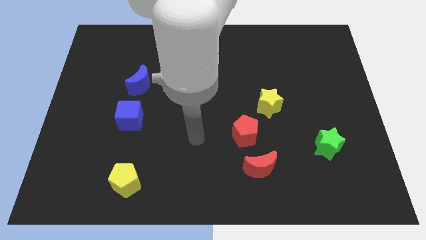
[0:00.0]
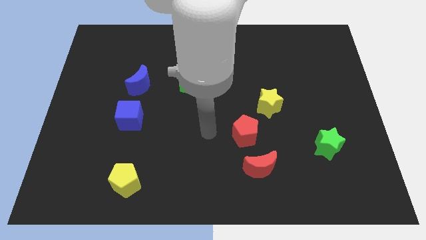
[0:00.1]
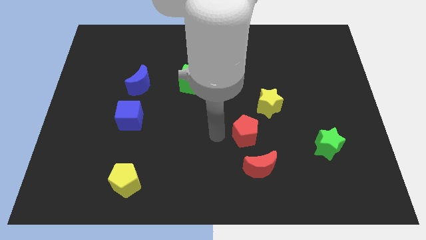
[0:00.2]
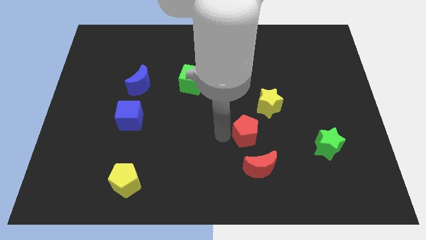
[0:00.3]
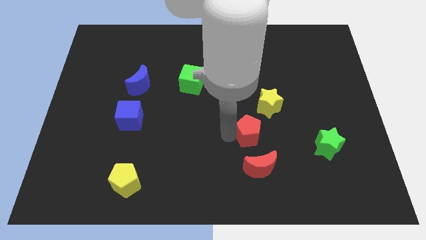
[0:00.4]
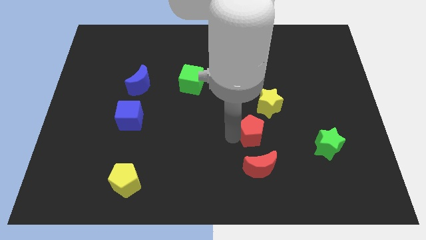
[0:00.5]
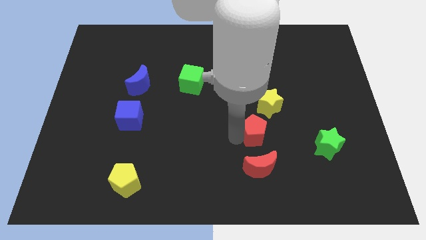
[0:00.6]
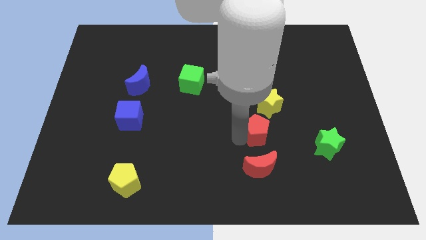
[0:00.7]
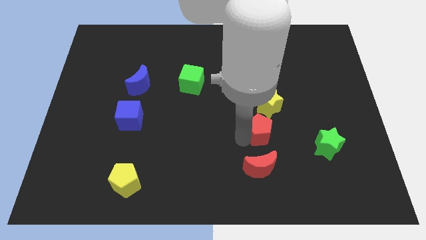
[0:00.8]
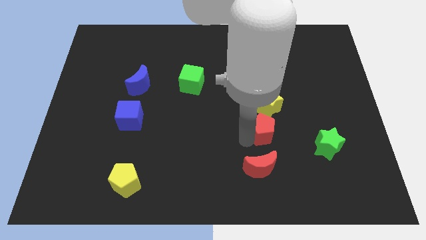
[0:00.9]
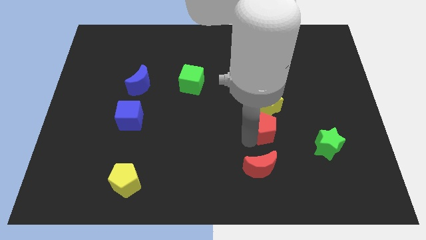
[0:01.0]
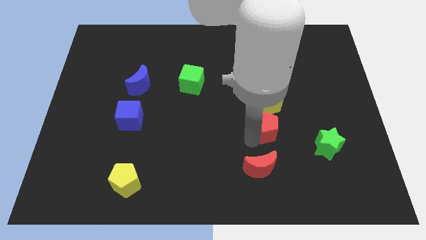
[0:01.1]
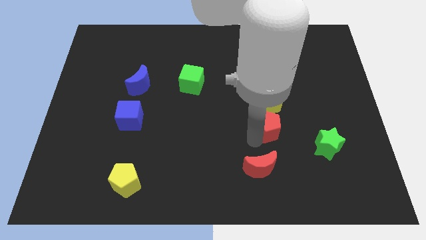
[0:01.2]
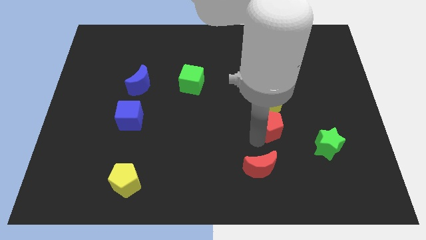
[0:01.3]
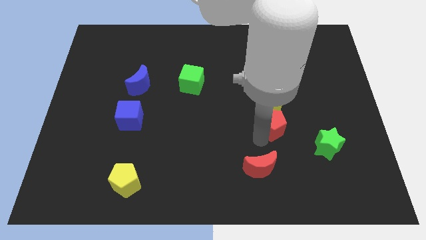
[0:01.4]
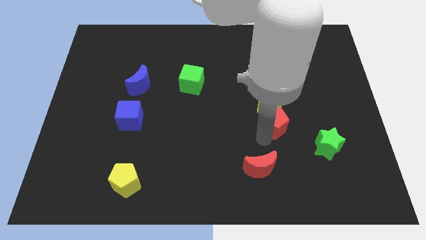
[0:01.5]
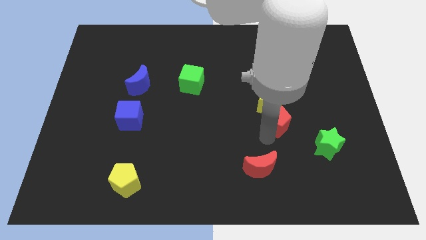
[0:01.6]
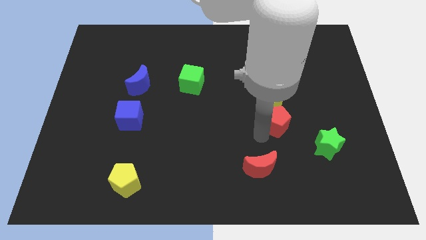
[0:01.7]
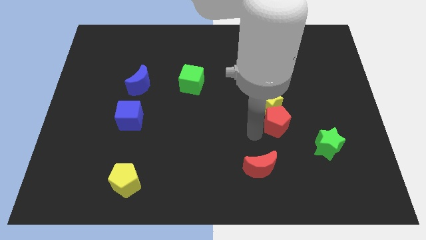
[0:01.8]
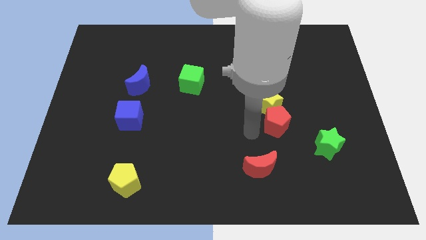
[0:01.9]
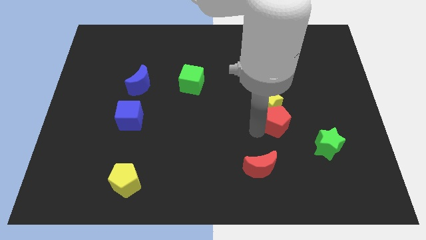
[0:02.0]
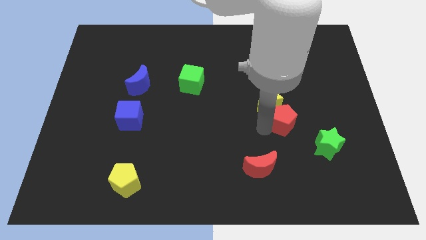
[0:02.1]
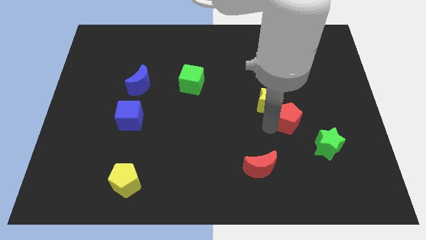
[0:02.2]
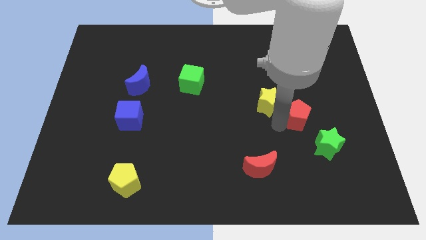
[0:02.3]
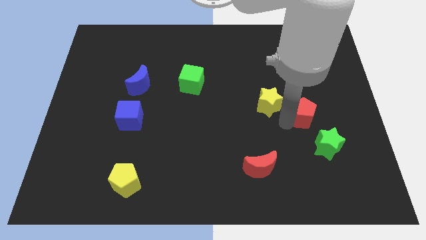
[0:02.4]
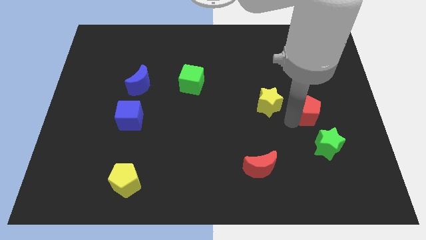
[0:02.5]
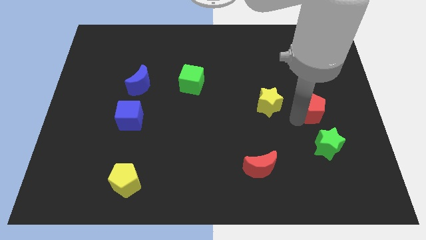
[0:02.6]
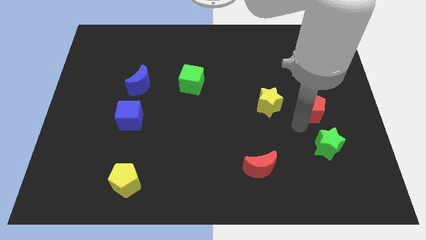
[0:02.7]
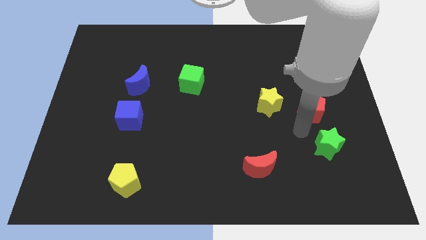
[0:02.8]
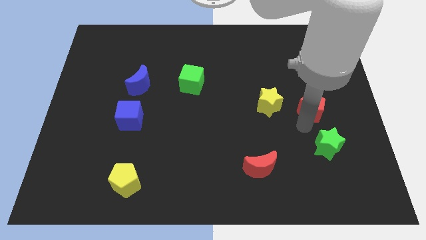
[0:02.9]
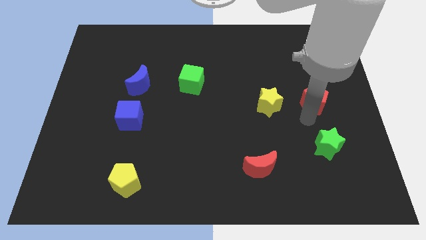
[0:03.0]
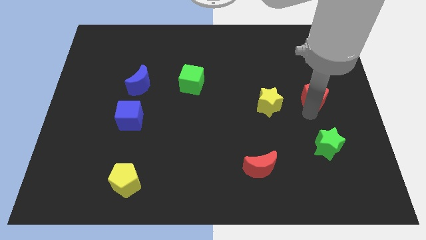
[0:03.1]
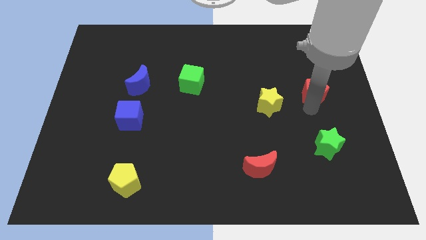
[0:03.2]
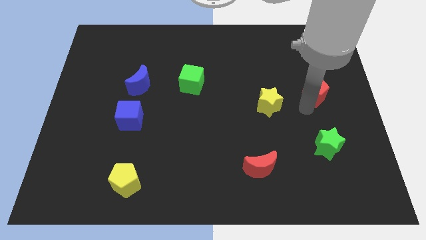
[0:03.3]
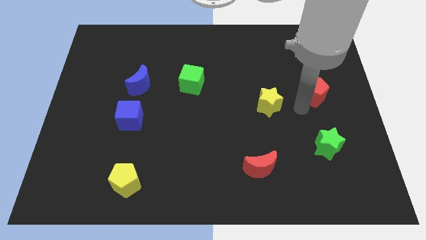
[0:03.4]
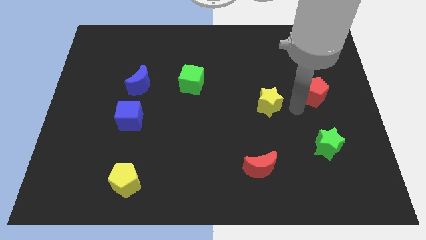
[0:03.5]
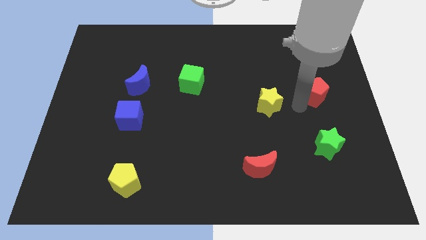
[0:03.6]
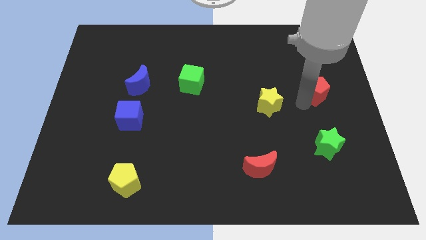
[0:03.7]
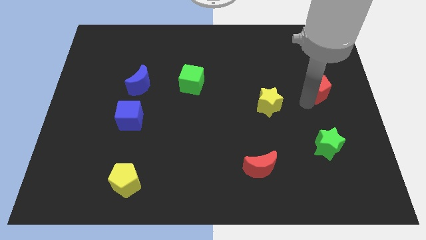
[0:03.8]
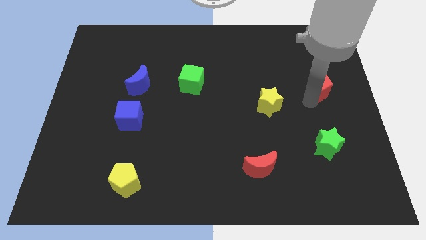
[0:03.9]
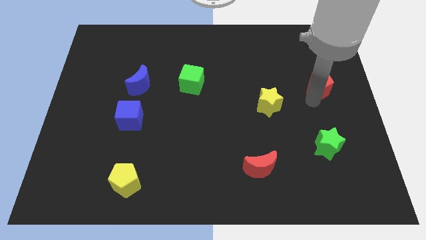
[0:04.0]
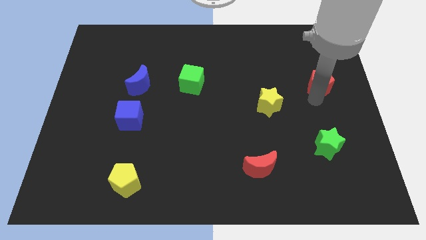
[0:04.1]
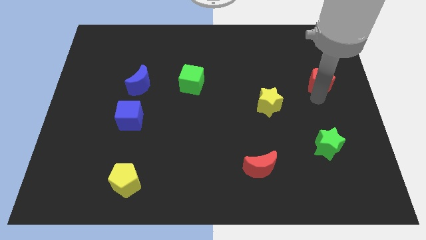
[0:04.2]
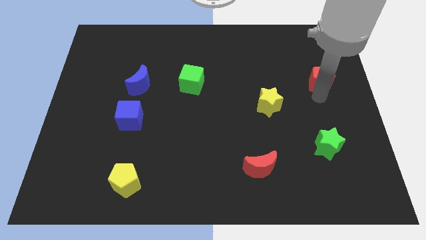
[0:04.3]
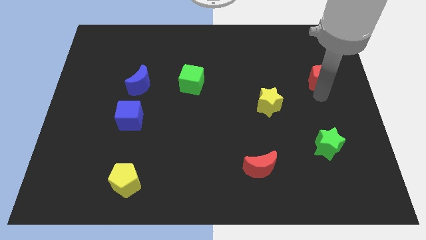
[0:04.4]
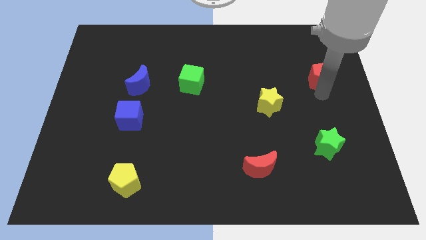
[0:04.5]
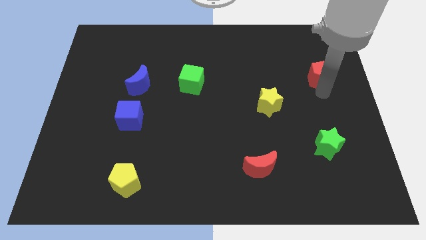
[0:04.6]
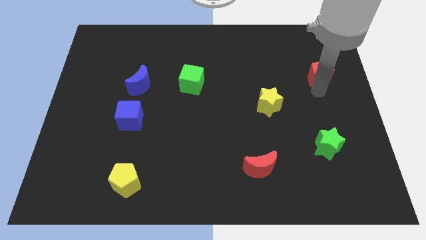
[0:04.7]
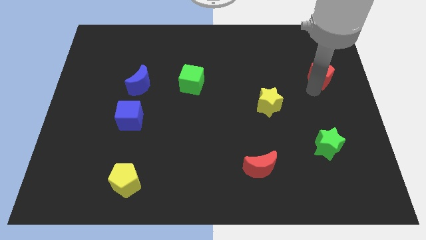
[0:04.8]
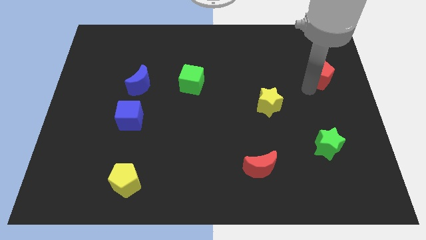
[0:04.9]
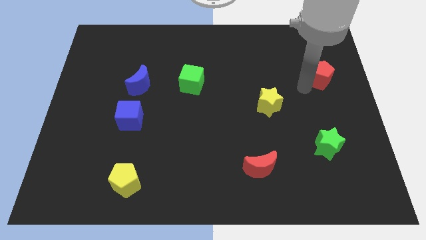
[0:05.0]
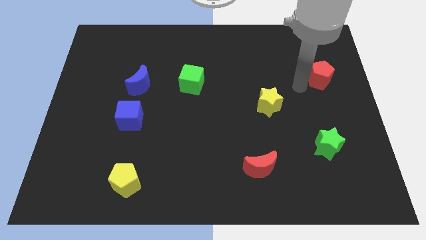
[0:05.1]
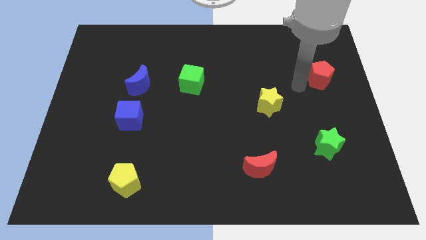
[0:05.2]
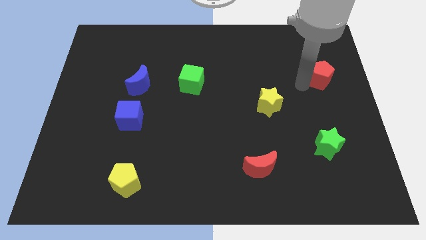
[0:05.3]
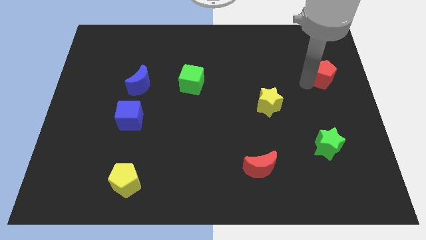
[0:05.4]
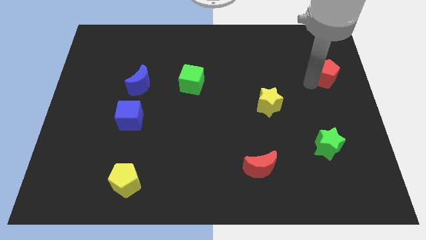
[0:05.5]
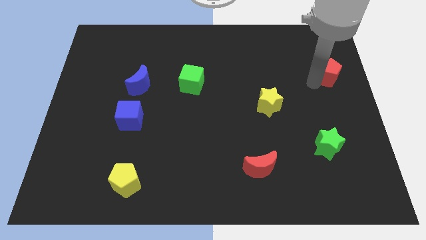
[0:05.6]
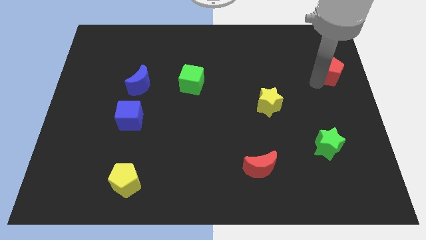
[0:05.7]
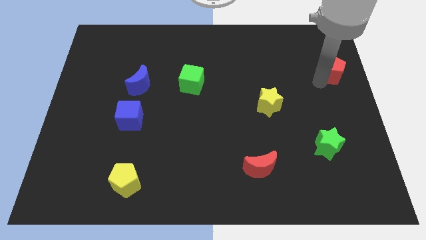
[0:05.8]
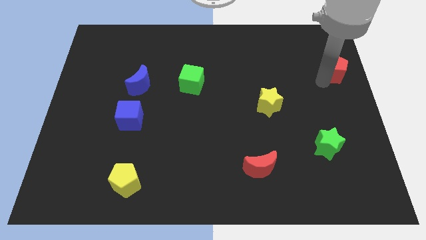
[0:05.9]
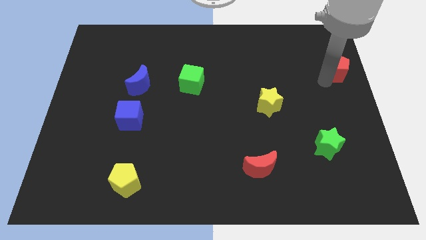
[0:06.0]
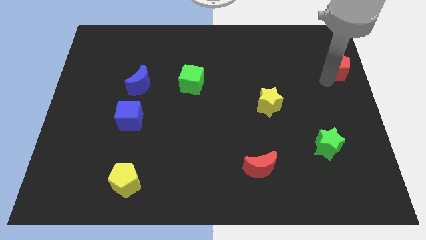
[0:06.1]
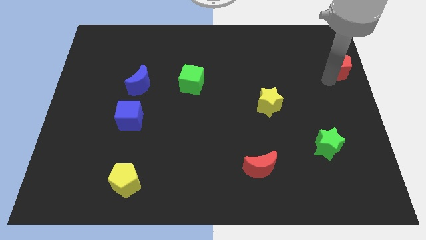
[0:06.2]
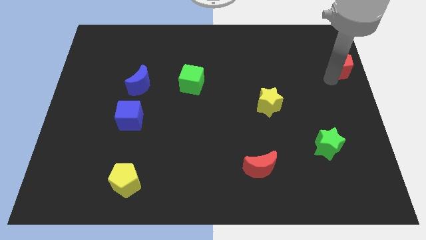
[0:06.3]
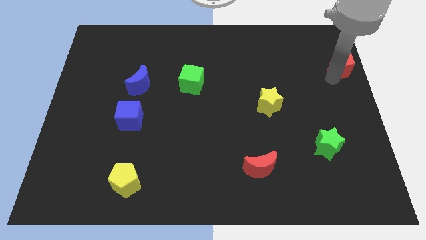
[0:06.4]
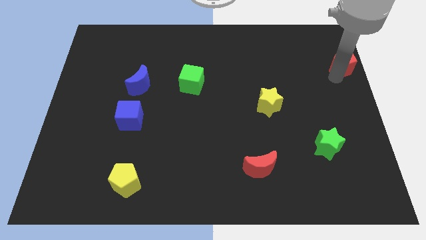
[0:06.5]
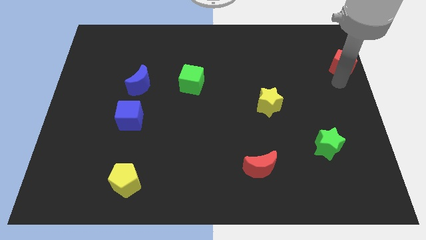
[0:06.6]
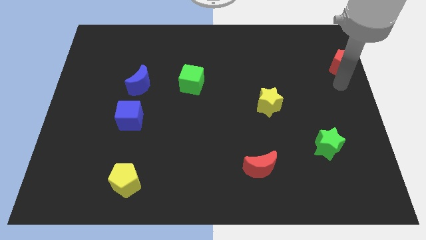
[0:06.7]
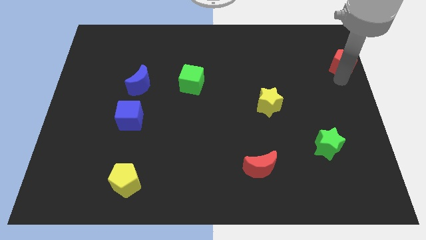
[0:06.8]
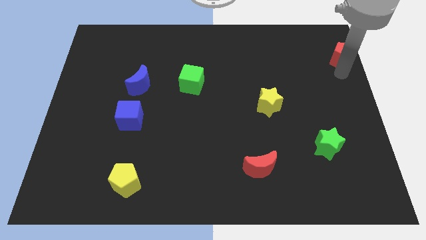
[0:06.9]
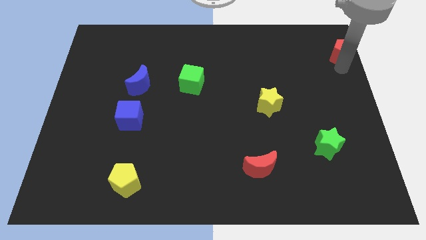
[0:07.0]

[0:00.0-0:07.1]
move the red pentagon to the upper right corner
